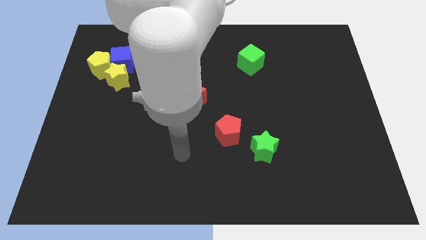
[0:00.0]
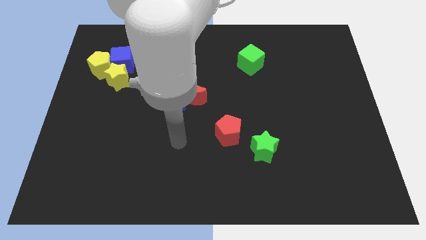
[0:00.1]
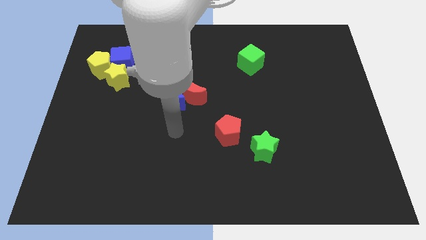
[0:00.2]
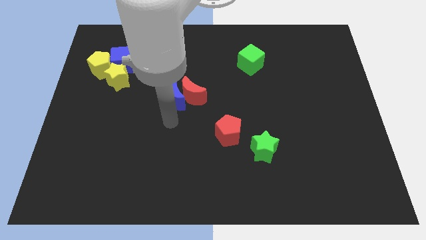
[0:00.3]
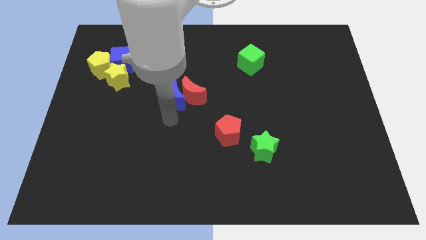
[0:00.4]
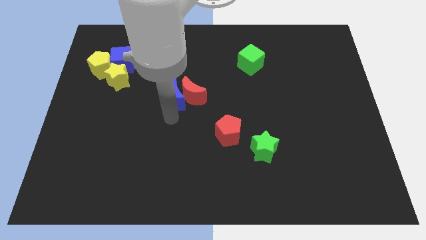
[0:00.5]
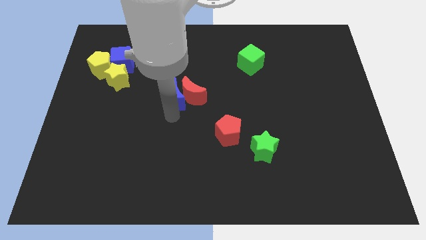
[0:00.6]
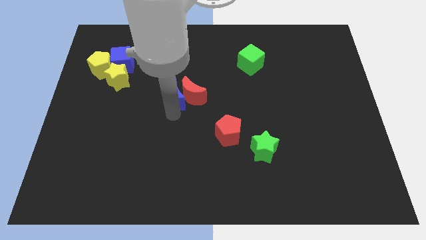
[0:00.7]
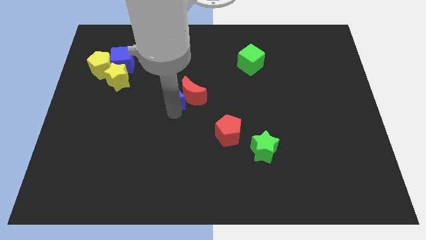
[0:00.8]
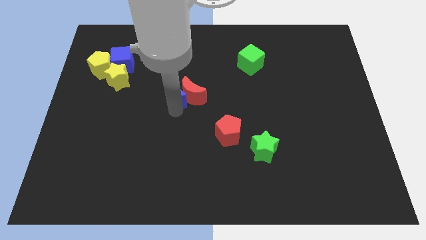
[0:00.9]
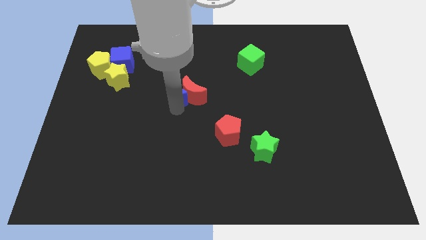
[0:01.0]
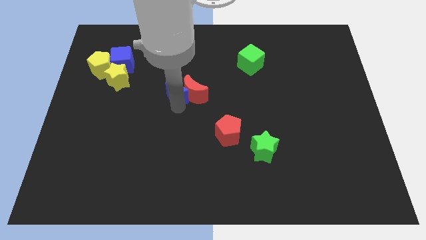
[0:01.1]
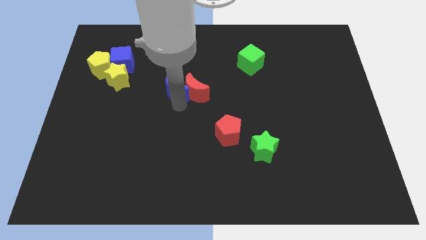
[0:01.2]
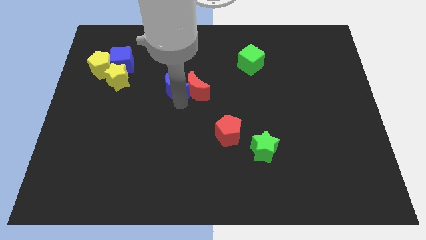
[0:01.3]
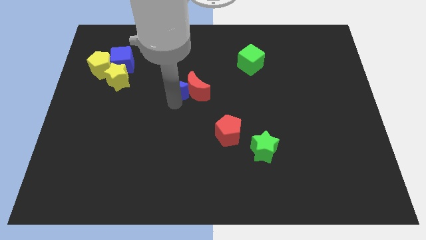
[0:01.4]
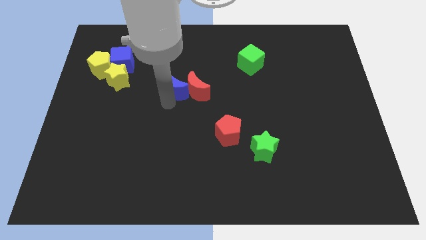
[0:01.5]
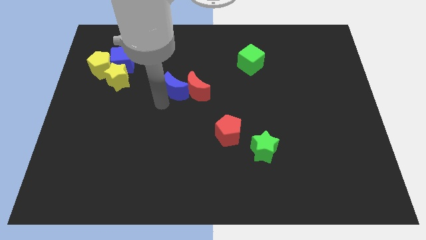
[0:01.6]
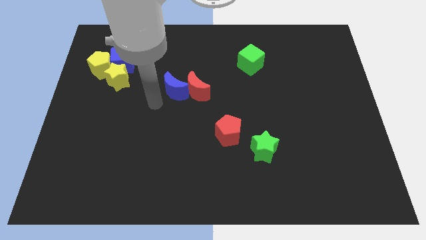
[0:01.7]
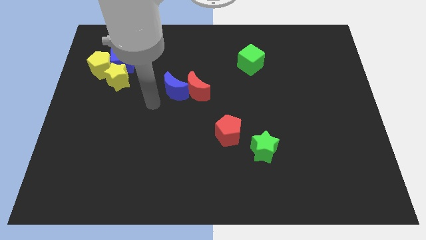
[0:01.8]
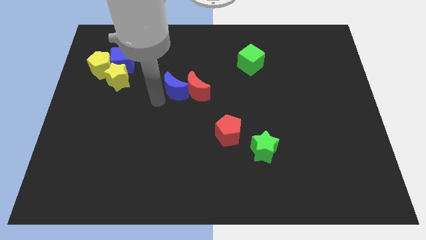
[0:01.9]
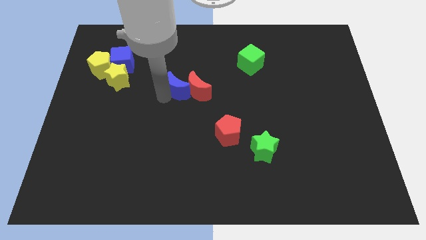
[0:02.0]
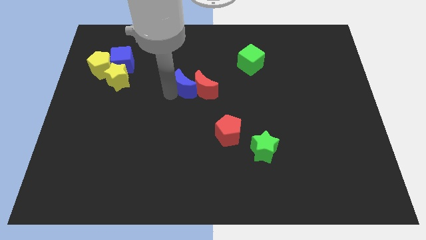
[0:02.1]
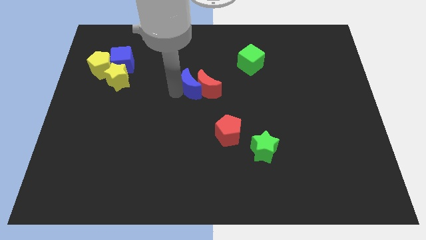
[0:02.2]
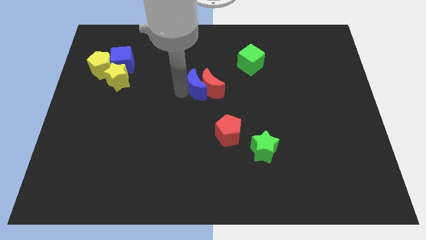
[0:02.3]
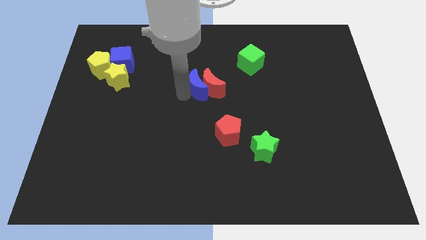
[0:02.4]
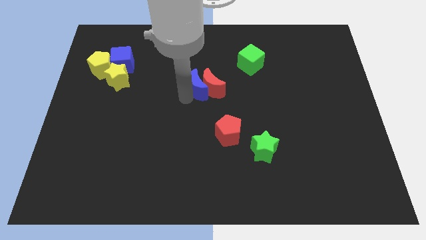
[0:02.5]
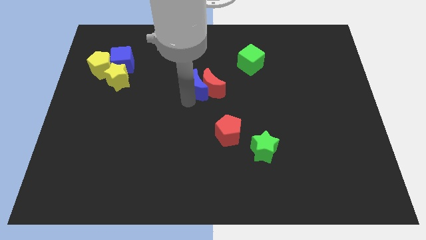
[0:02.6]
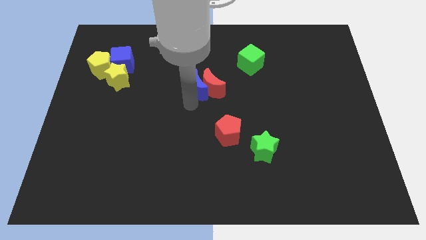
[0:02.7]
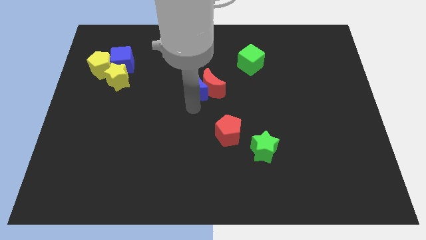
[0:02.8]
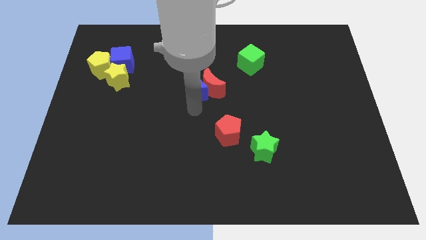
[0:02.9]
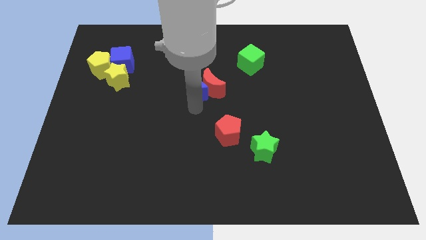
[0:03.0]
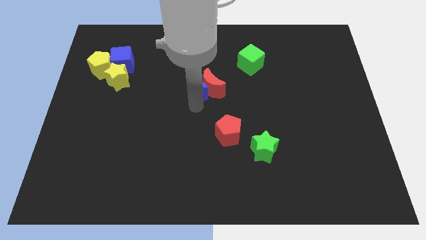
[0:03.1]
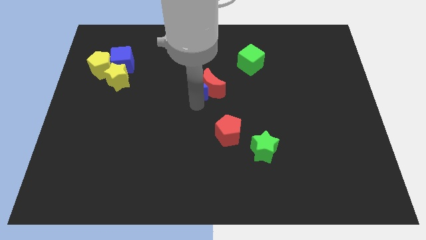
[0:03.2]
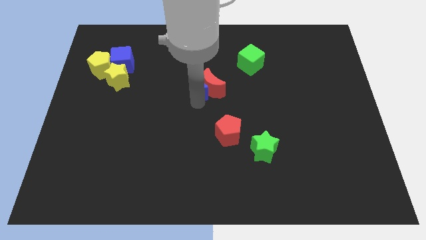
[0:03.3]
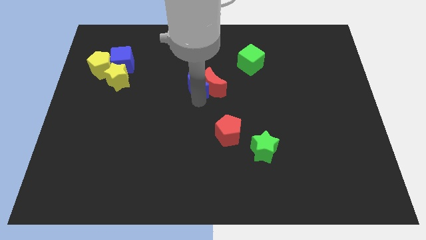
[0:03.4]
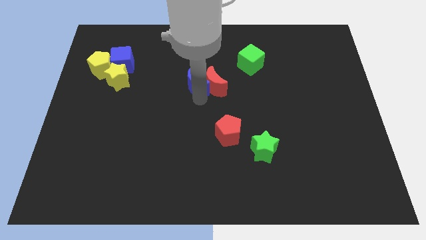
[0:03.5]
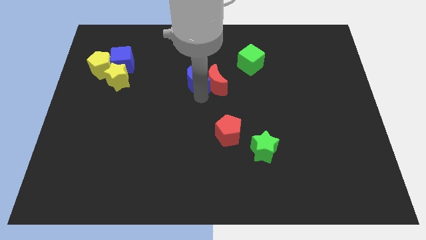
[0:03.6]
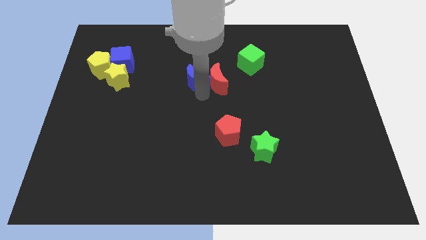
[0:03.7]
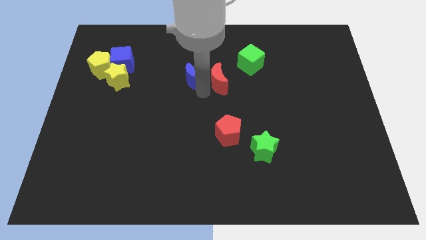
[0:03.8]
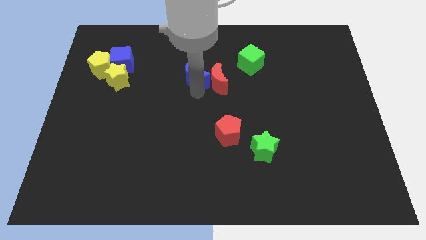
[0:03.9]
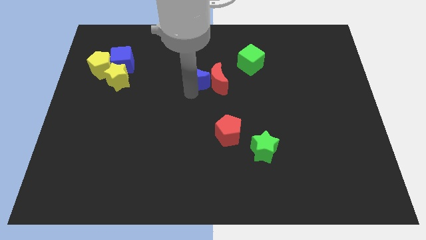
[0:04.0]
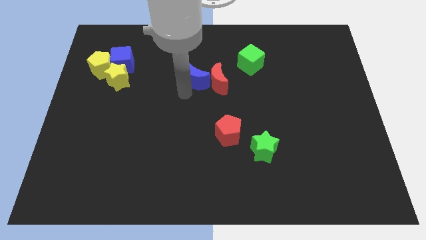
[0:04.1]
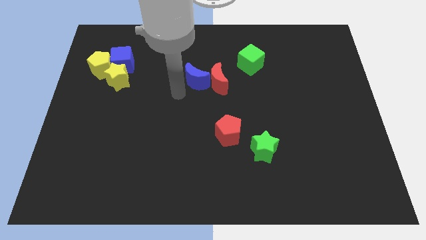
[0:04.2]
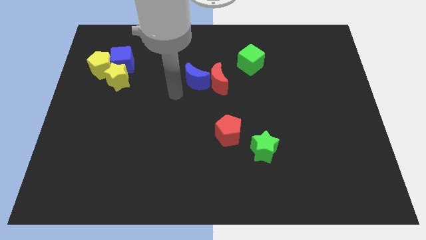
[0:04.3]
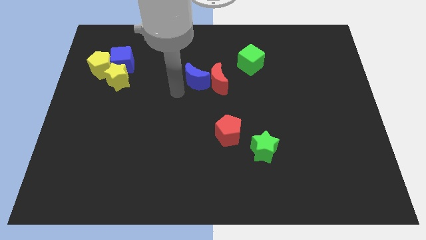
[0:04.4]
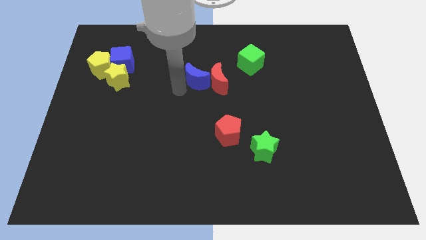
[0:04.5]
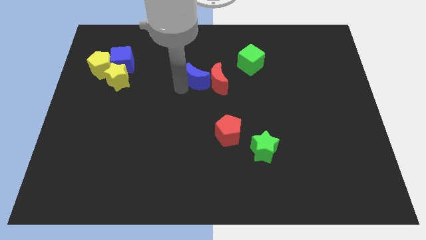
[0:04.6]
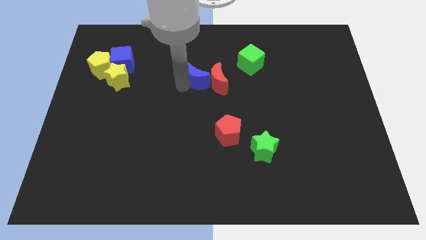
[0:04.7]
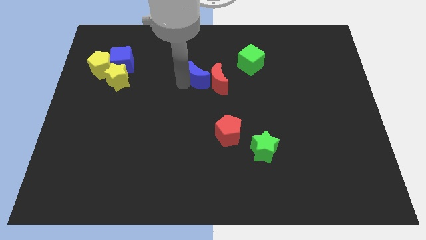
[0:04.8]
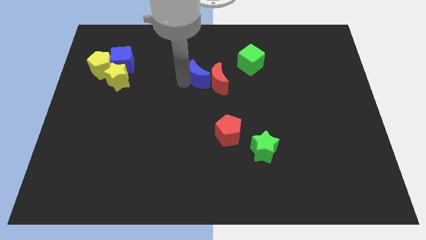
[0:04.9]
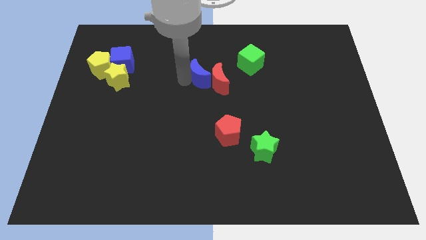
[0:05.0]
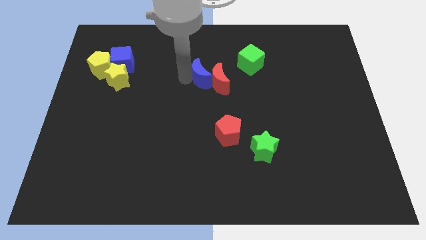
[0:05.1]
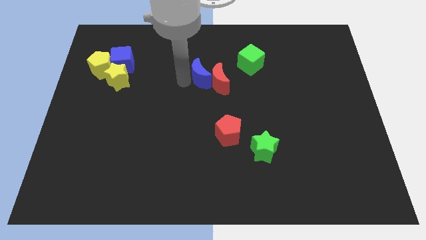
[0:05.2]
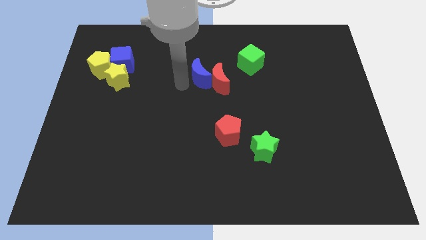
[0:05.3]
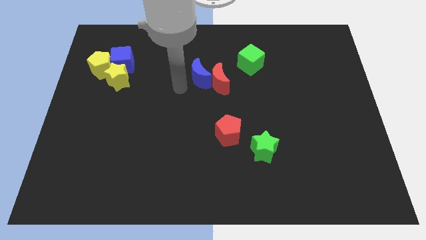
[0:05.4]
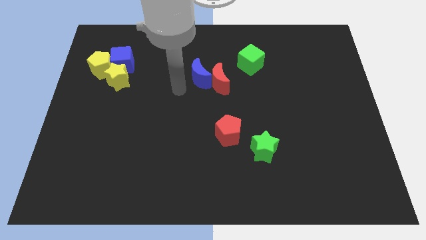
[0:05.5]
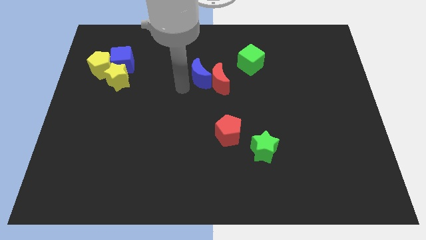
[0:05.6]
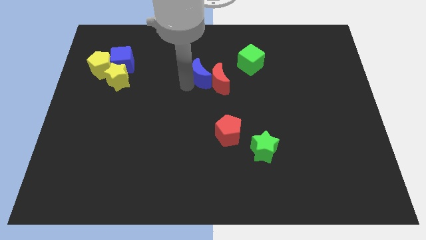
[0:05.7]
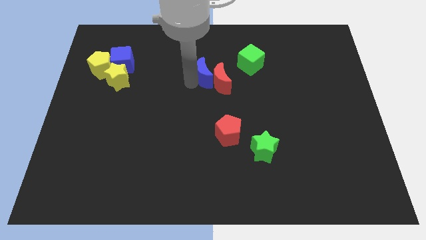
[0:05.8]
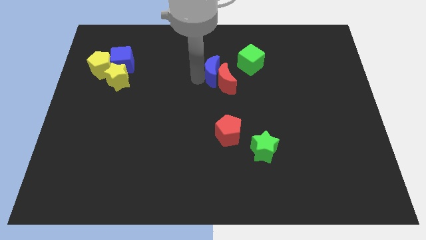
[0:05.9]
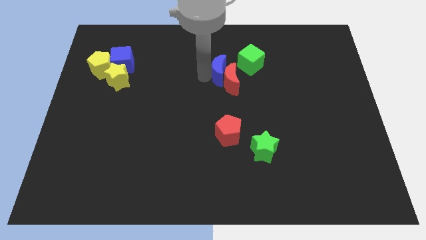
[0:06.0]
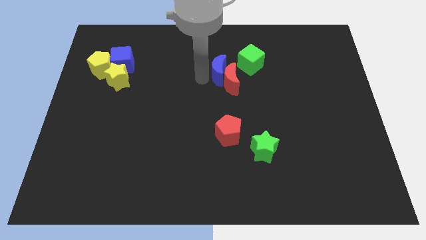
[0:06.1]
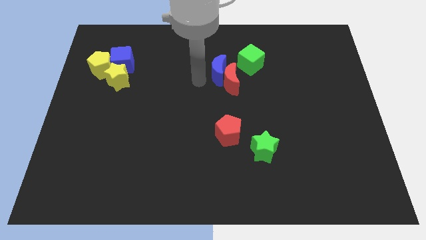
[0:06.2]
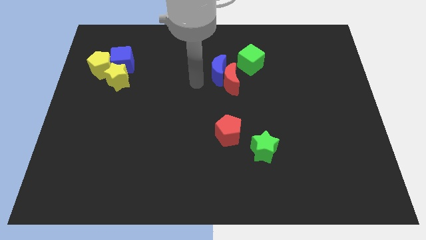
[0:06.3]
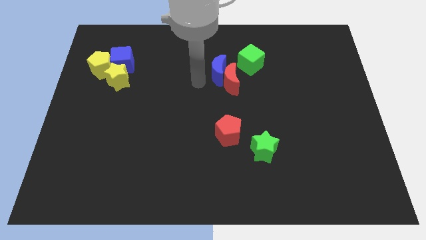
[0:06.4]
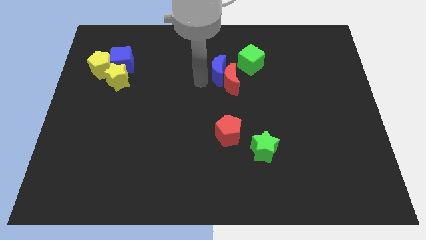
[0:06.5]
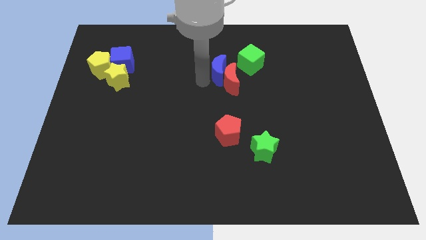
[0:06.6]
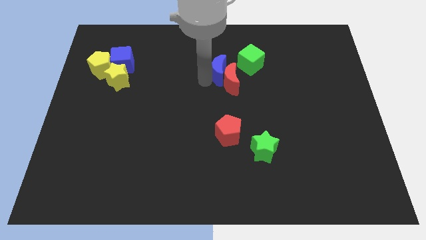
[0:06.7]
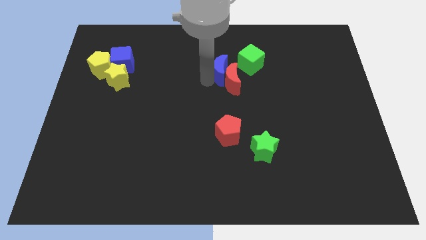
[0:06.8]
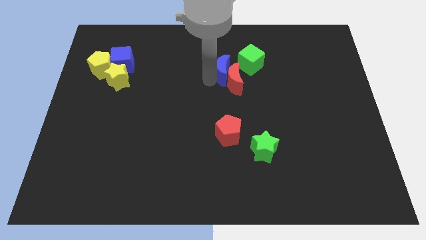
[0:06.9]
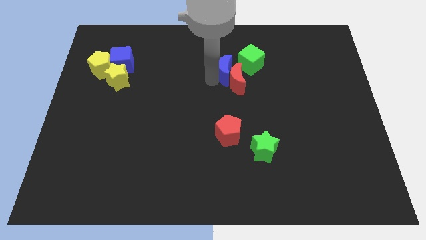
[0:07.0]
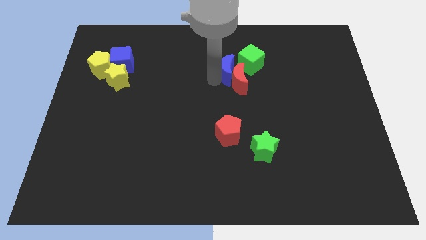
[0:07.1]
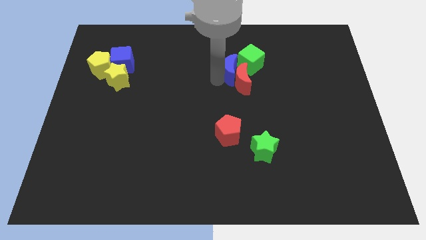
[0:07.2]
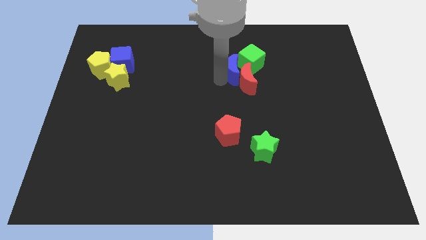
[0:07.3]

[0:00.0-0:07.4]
put the blue moon close to the green cube

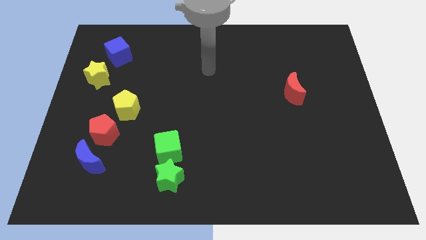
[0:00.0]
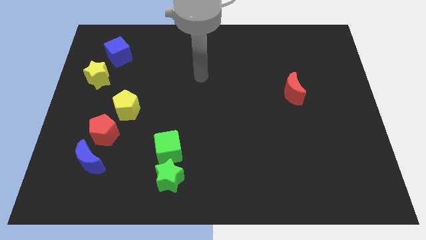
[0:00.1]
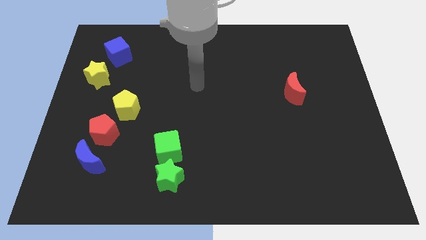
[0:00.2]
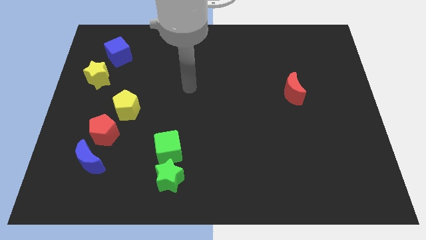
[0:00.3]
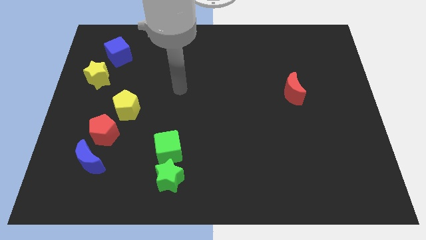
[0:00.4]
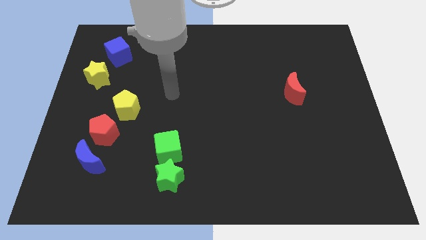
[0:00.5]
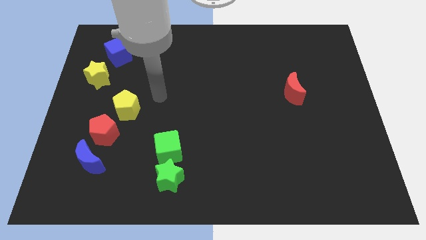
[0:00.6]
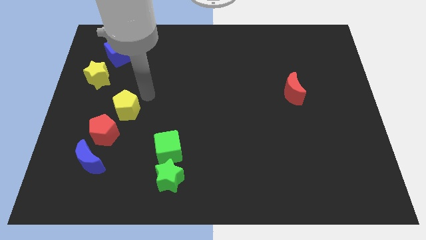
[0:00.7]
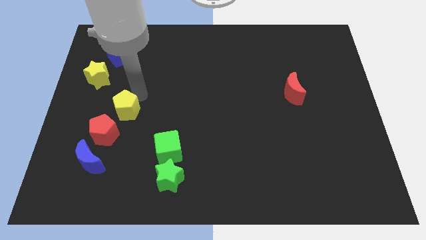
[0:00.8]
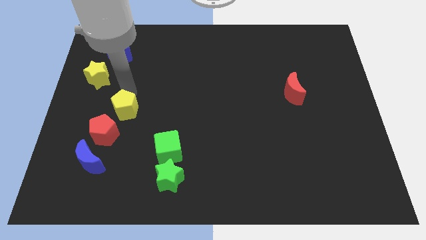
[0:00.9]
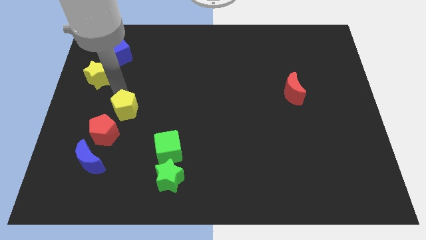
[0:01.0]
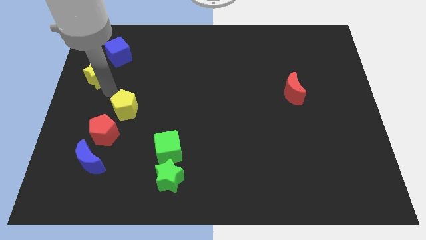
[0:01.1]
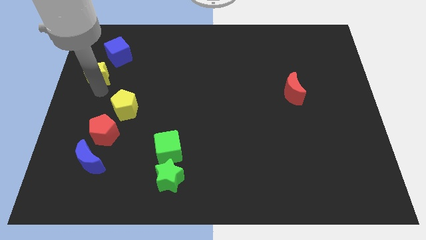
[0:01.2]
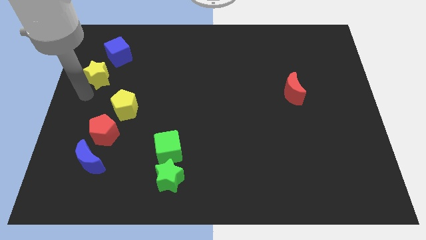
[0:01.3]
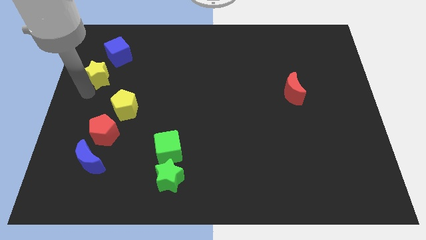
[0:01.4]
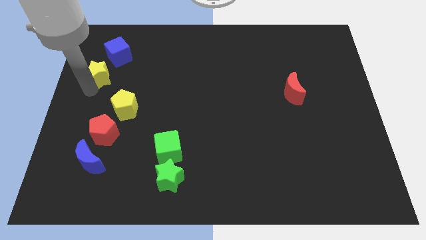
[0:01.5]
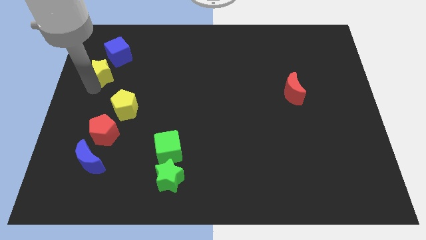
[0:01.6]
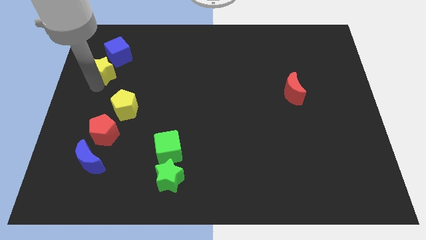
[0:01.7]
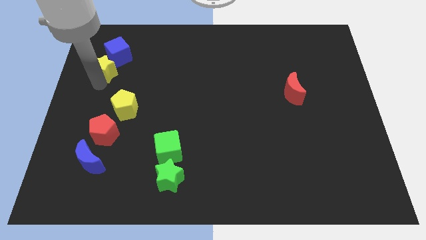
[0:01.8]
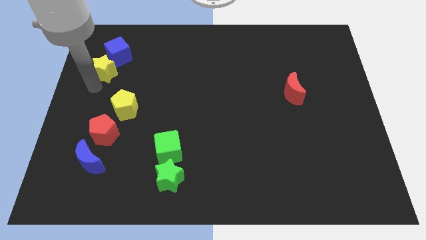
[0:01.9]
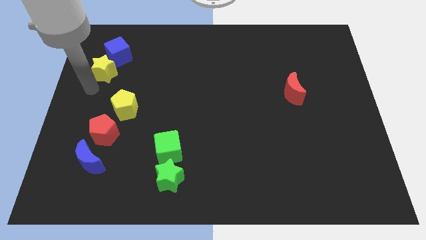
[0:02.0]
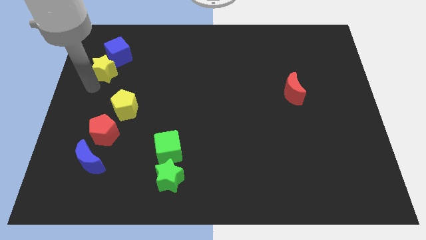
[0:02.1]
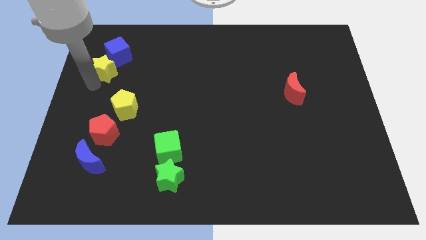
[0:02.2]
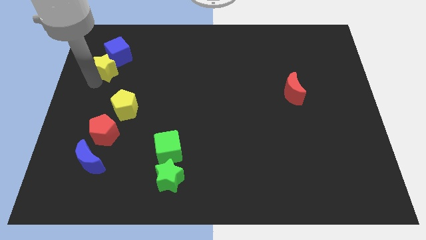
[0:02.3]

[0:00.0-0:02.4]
move the yellow star towards the blue cube
